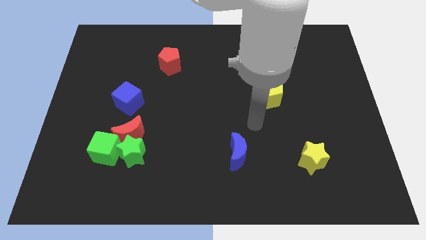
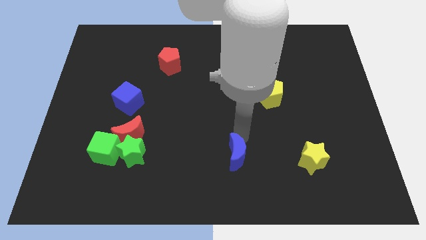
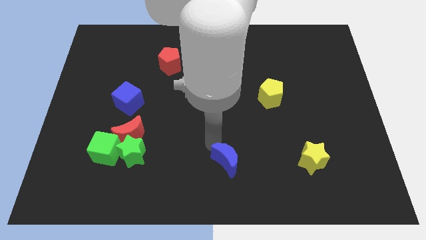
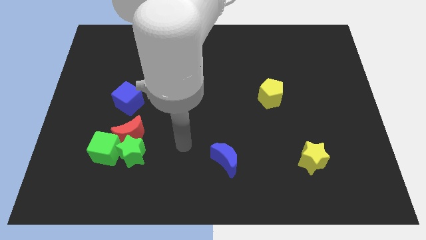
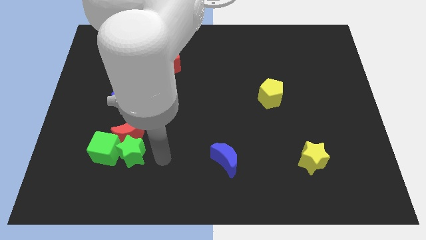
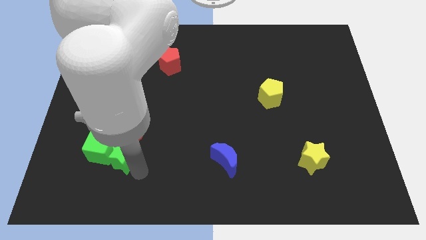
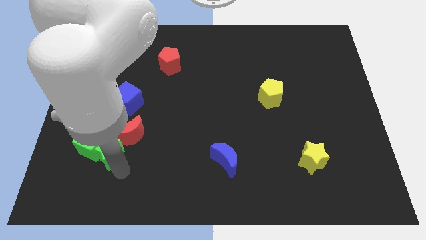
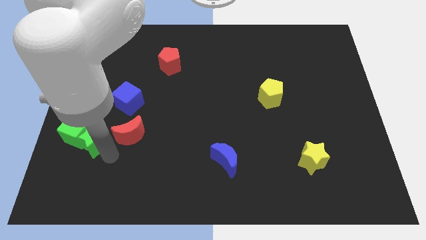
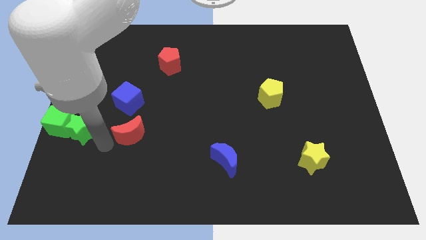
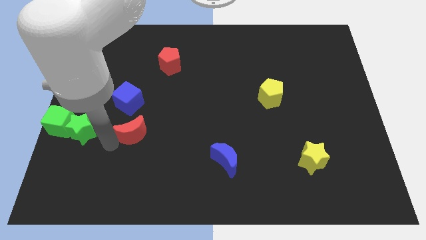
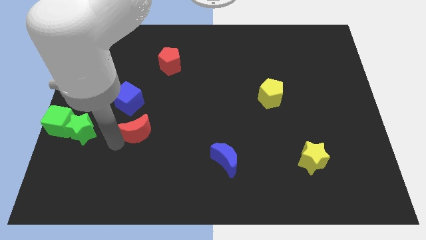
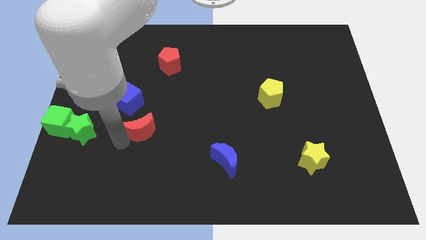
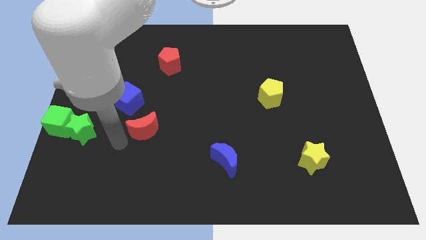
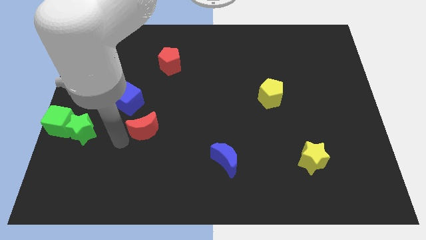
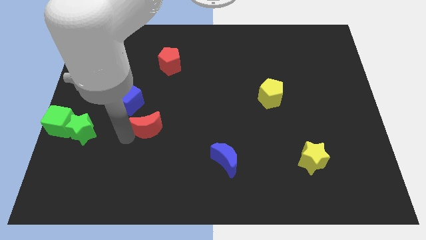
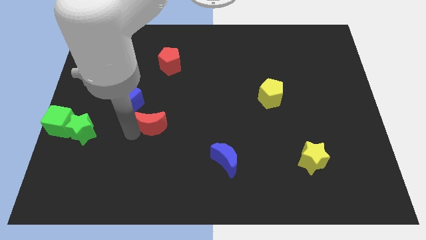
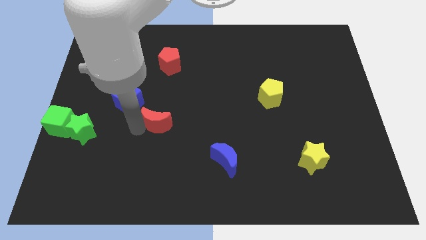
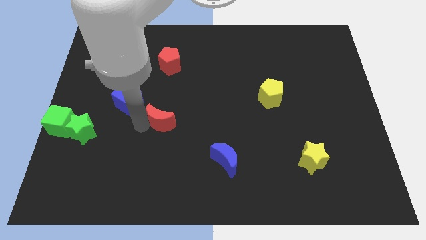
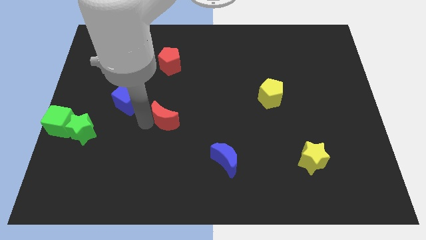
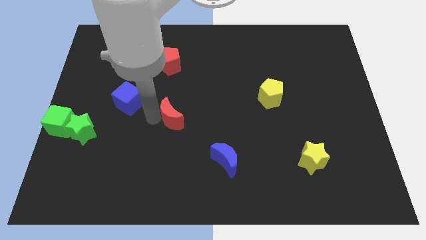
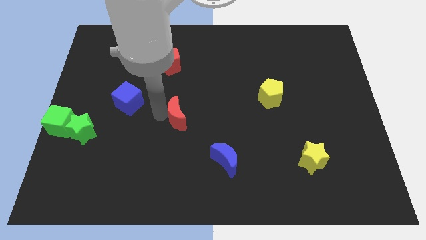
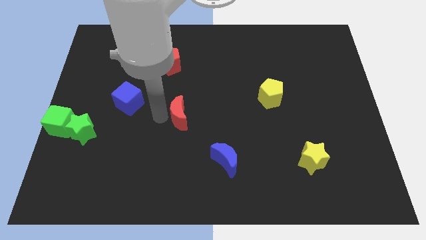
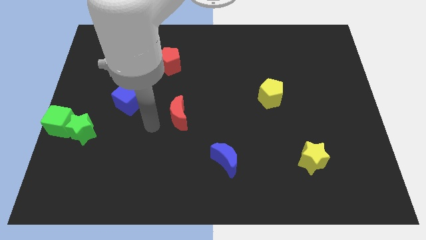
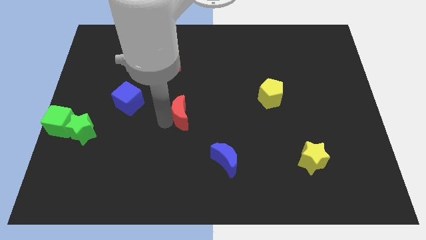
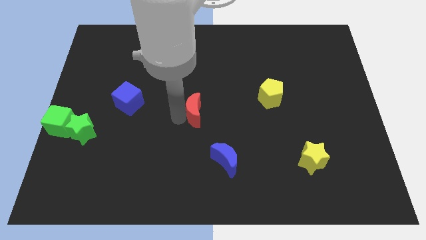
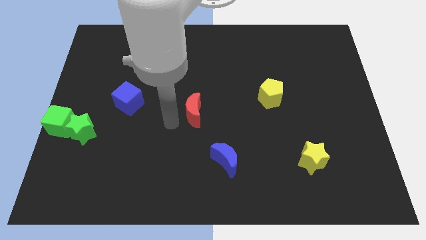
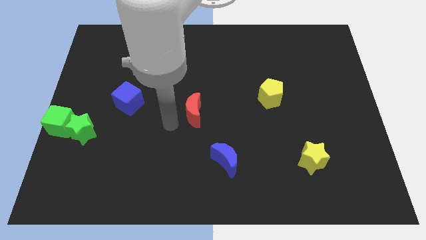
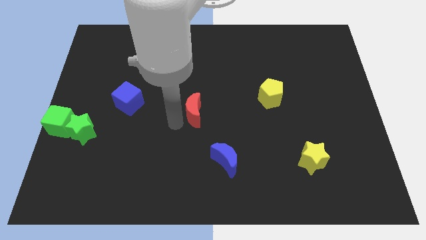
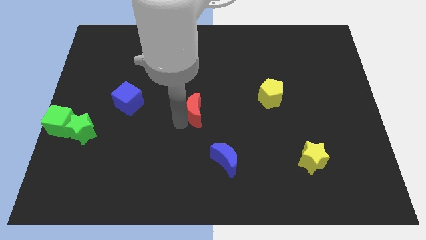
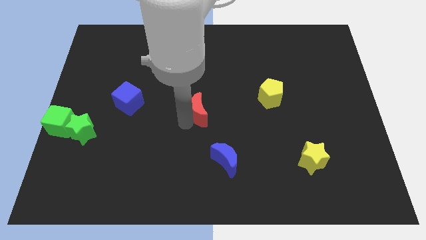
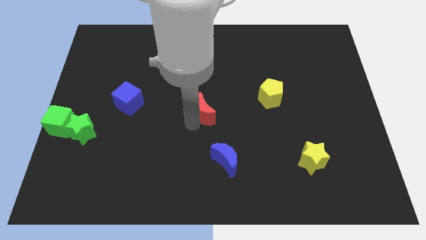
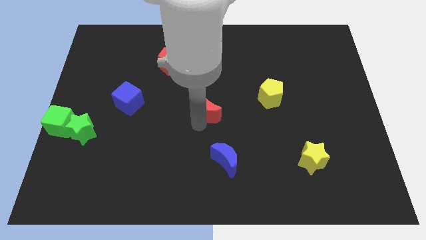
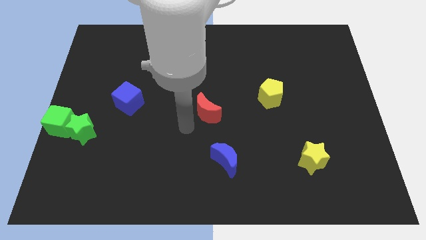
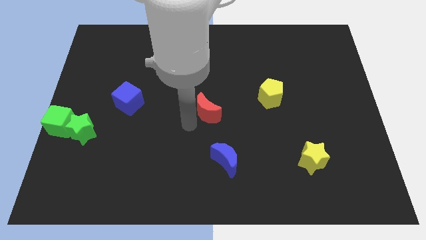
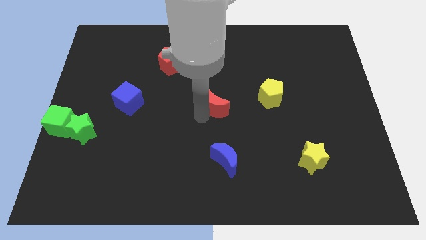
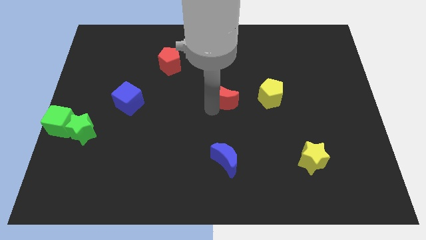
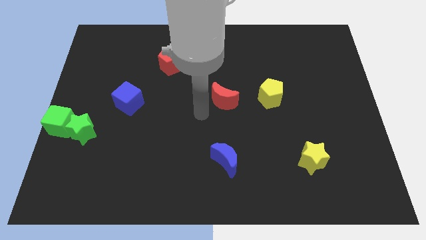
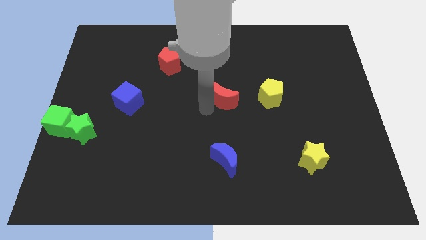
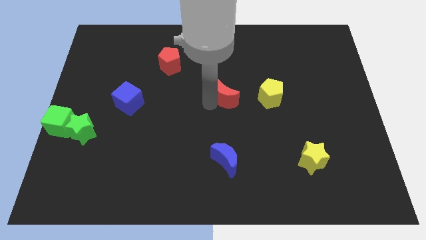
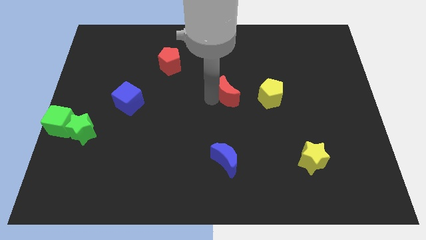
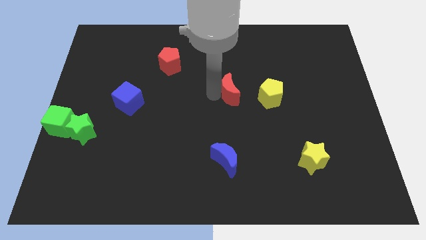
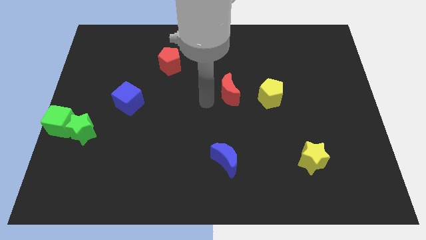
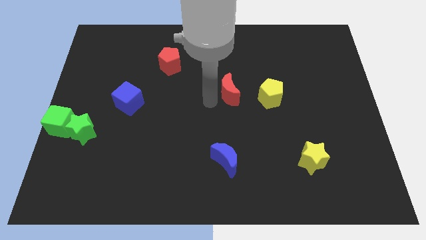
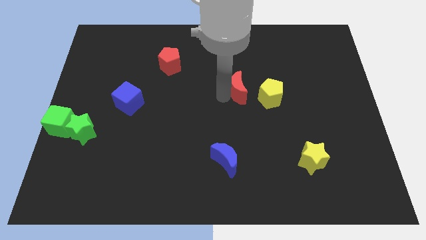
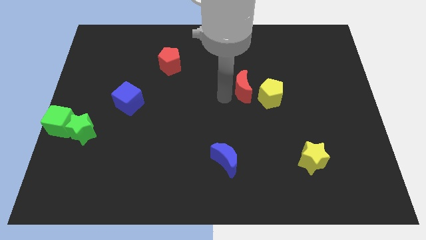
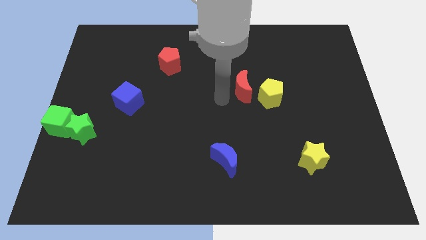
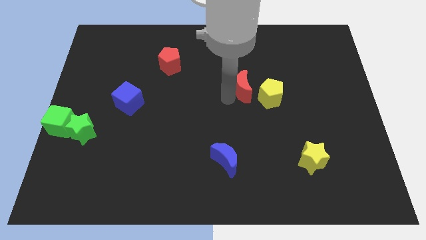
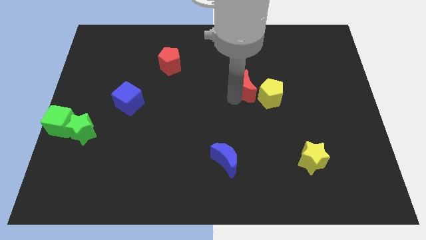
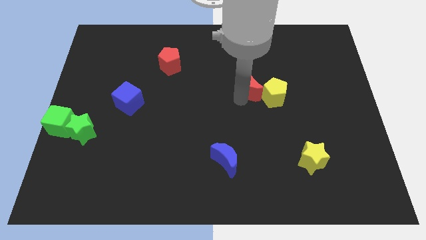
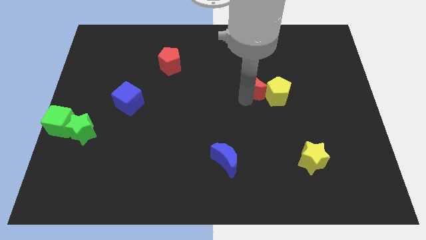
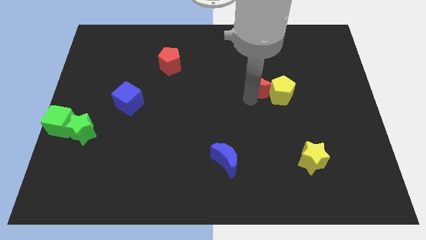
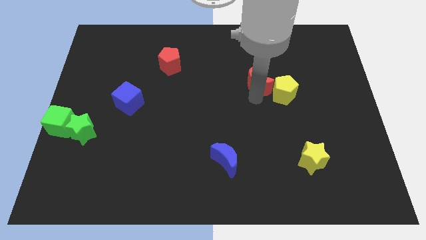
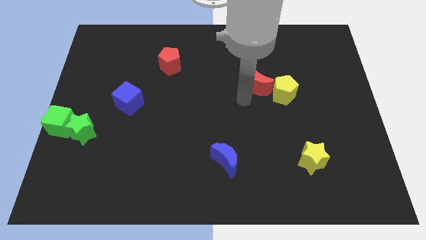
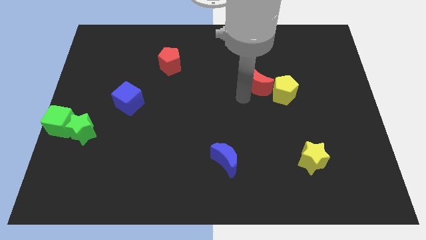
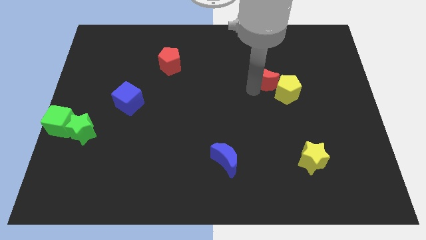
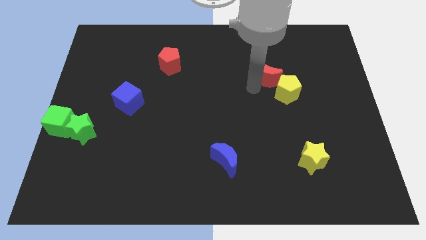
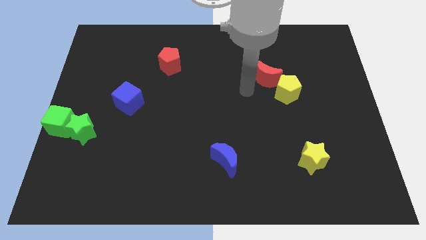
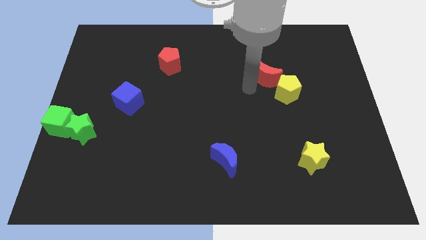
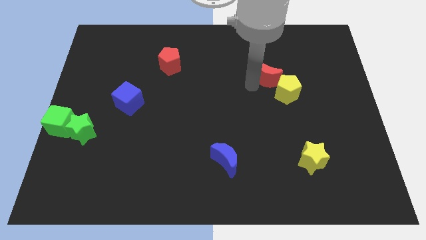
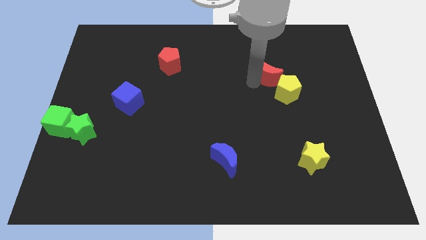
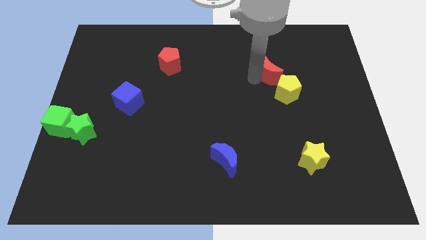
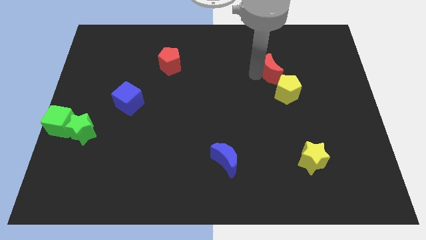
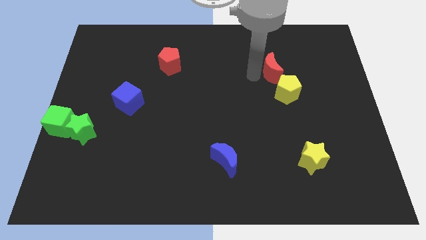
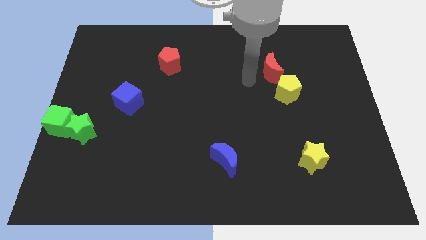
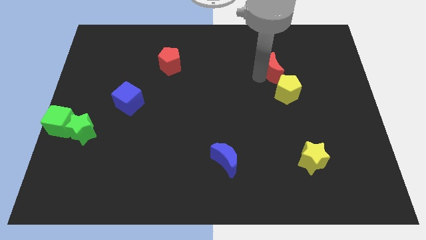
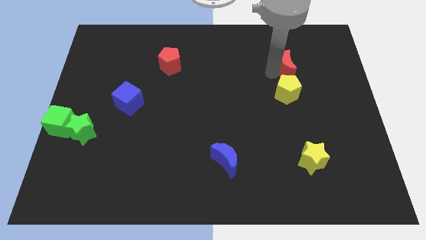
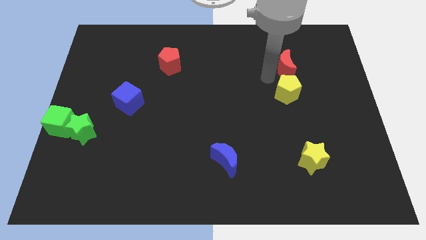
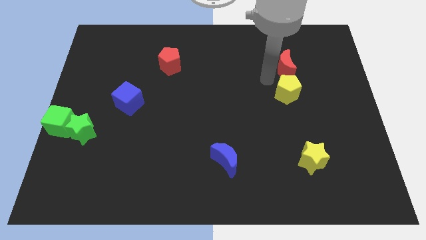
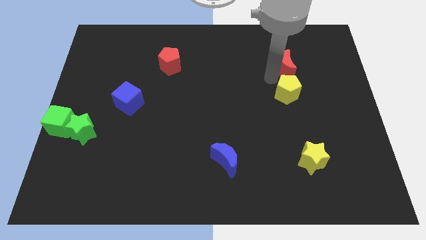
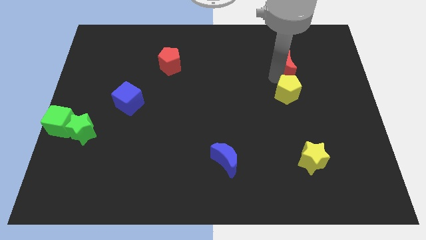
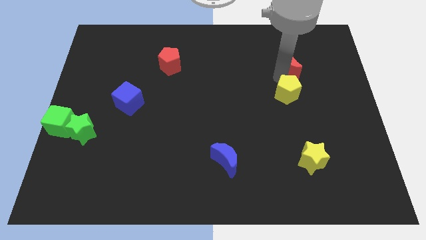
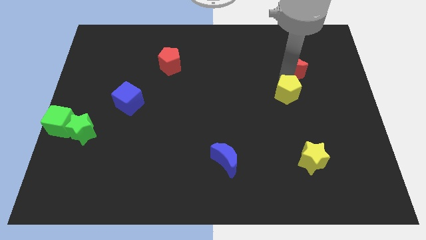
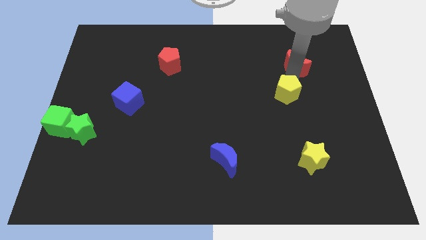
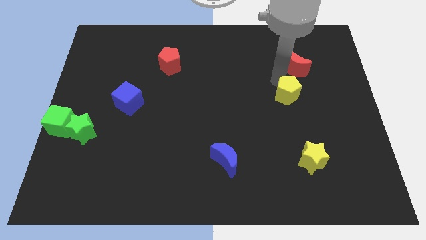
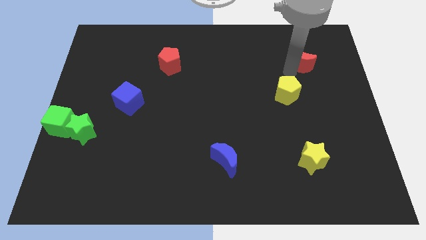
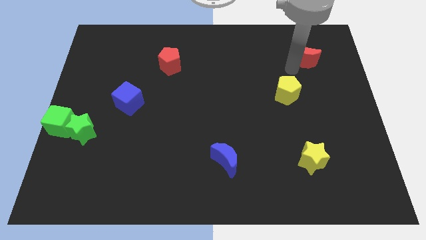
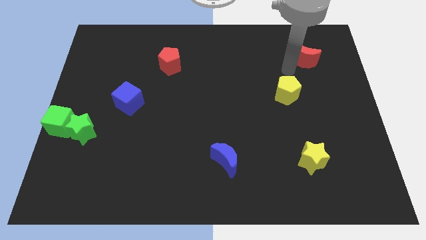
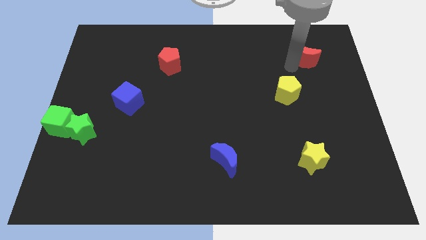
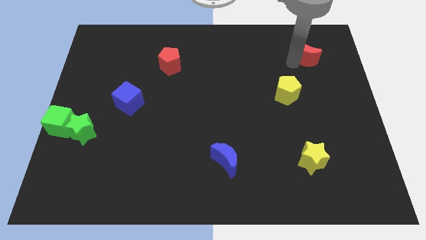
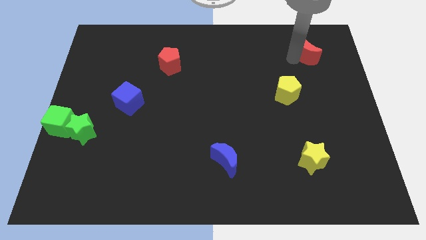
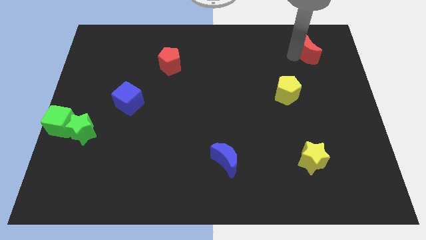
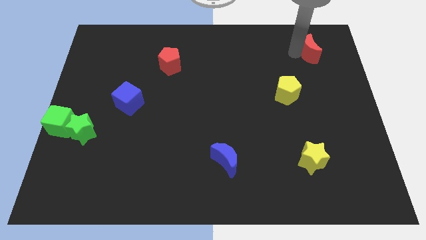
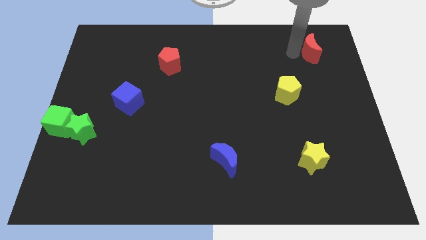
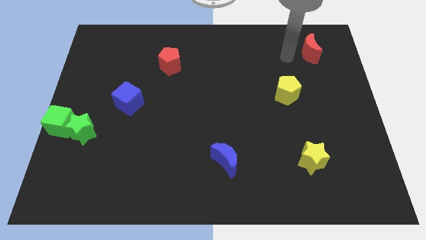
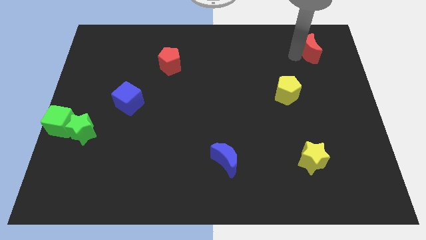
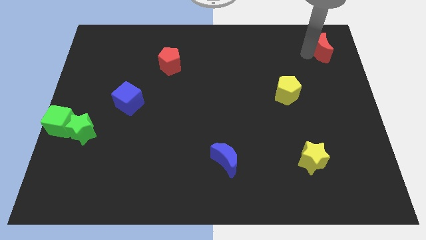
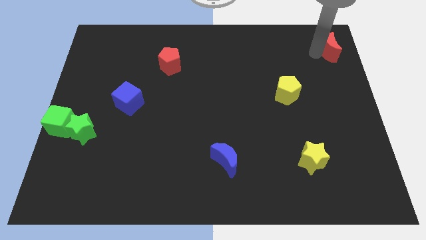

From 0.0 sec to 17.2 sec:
put the red moon to the top right corner
